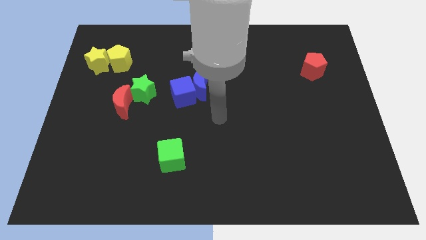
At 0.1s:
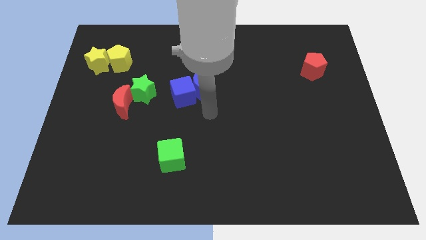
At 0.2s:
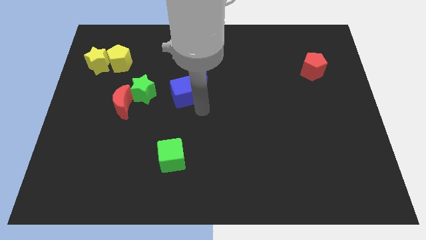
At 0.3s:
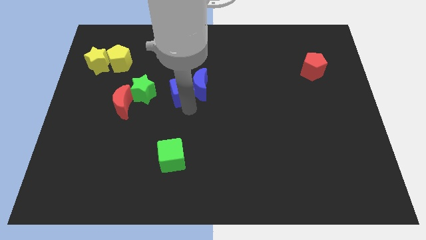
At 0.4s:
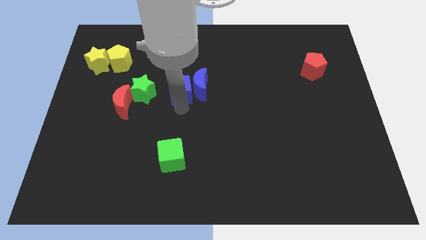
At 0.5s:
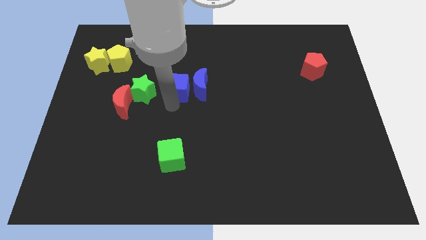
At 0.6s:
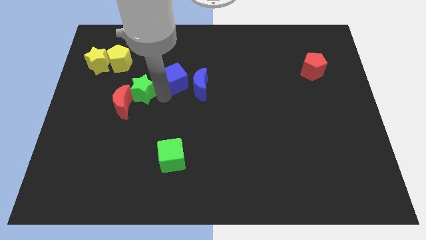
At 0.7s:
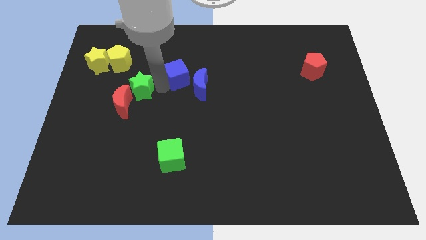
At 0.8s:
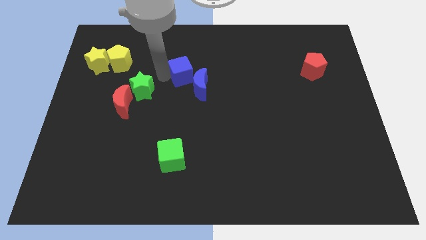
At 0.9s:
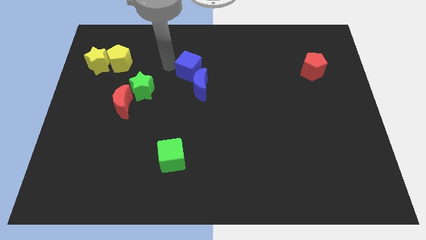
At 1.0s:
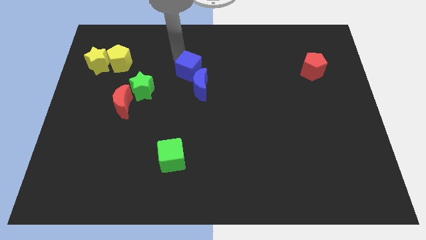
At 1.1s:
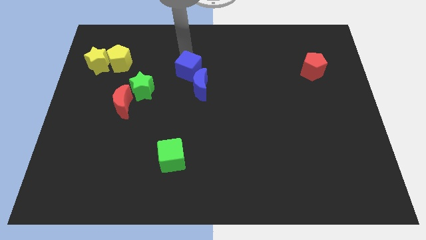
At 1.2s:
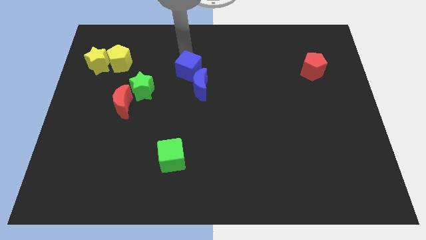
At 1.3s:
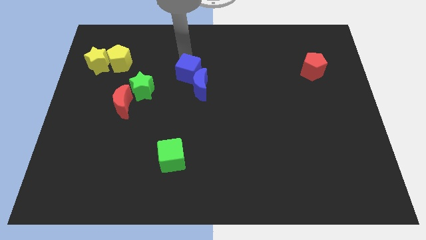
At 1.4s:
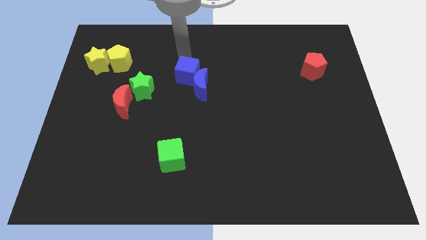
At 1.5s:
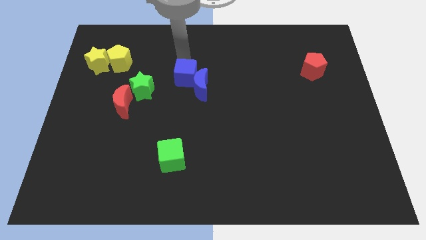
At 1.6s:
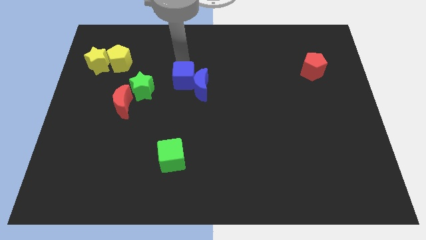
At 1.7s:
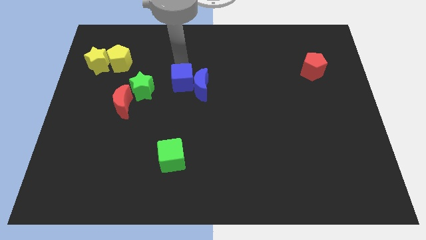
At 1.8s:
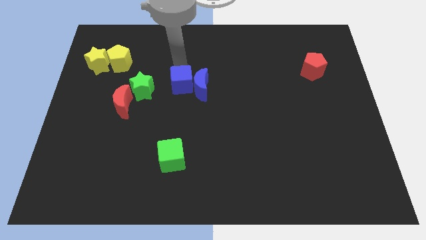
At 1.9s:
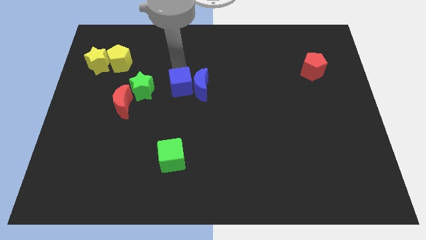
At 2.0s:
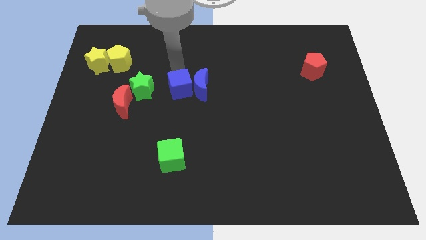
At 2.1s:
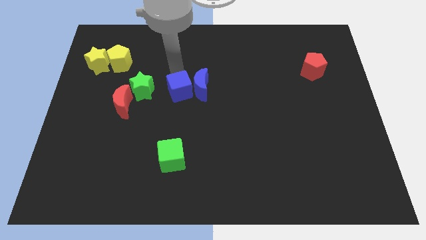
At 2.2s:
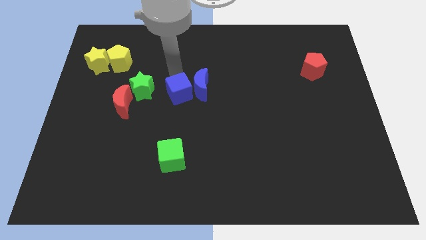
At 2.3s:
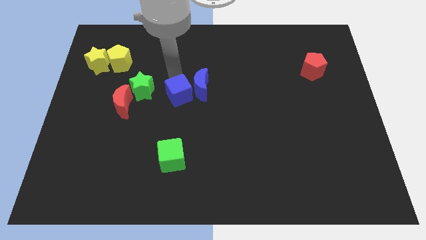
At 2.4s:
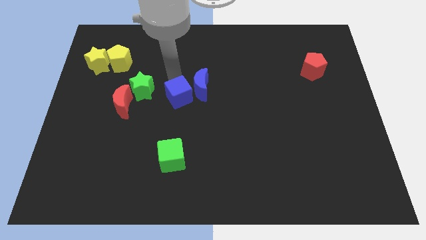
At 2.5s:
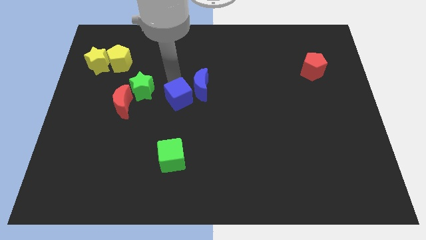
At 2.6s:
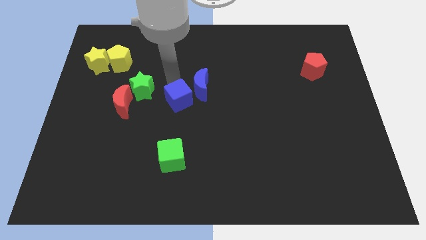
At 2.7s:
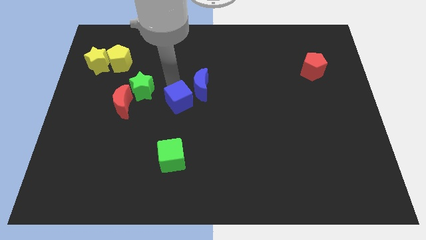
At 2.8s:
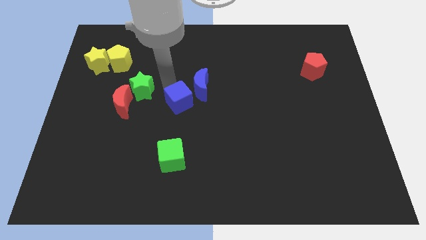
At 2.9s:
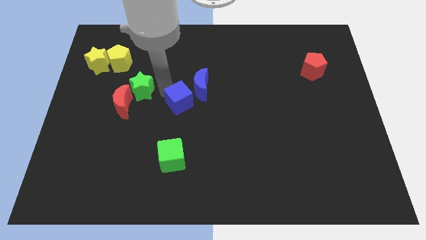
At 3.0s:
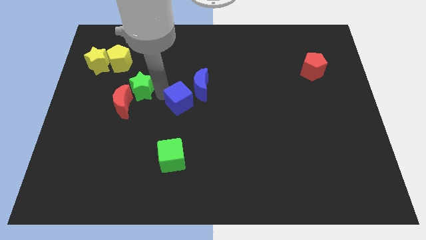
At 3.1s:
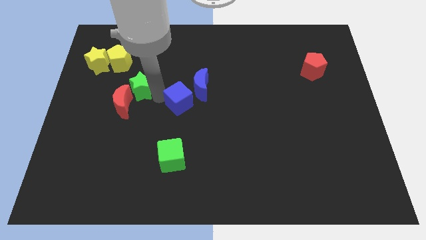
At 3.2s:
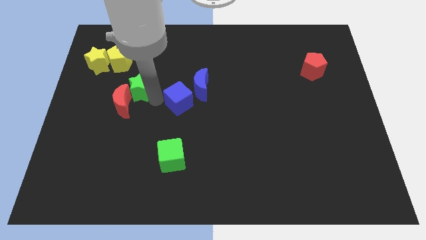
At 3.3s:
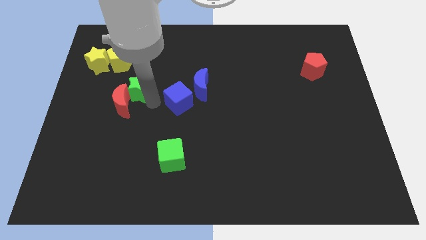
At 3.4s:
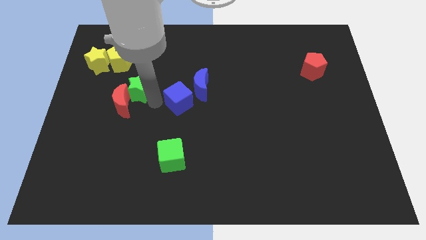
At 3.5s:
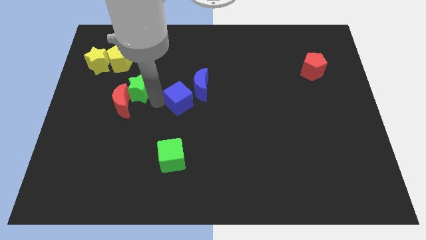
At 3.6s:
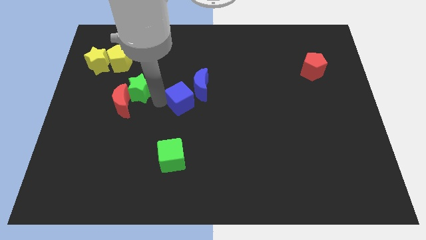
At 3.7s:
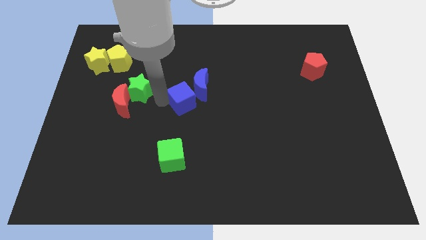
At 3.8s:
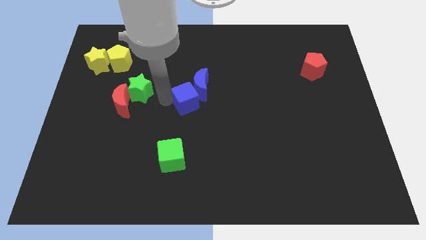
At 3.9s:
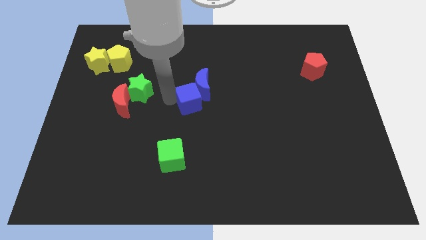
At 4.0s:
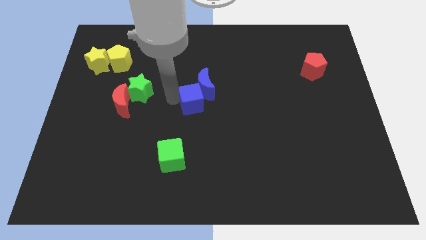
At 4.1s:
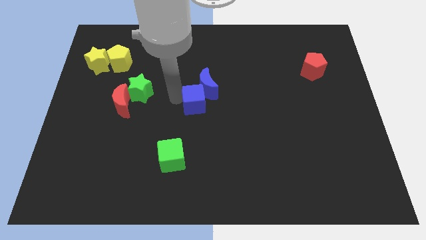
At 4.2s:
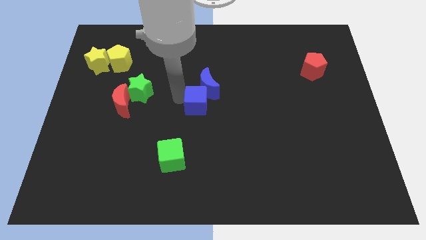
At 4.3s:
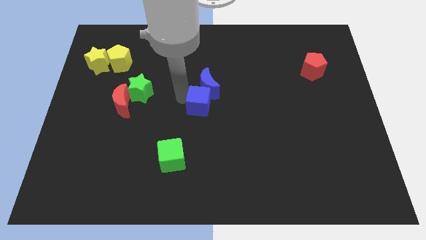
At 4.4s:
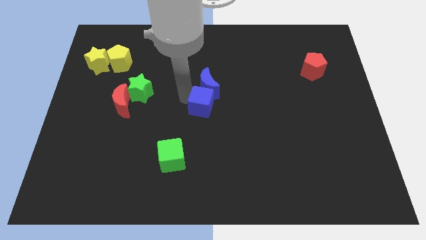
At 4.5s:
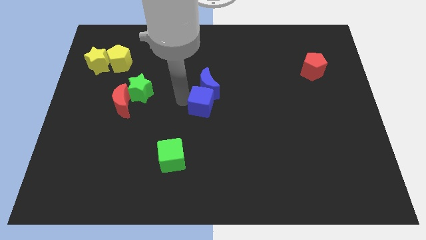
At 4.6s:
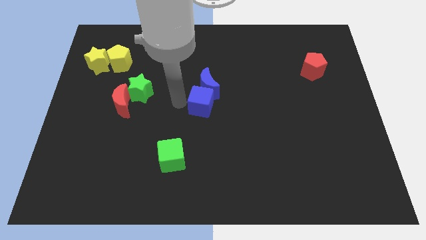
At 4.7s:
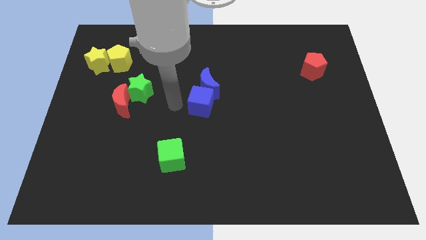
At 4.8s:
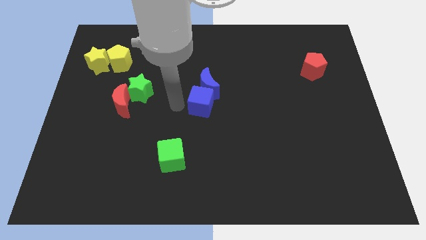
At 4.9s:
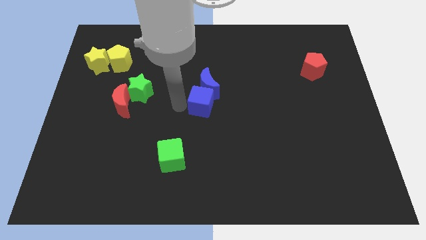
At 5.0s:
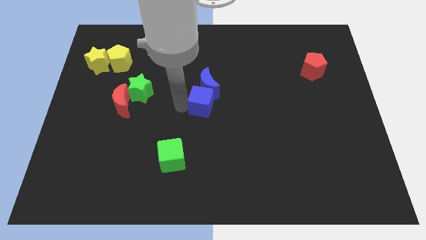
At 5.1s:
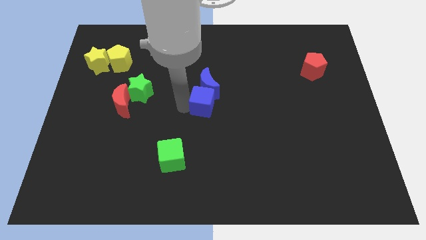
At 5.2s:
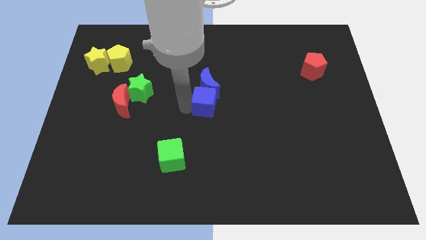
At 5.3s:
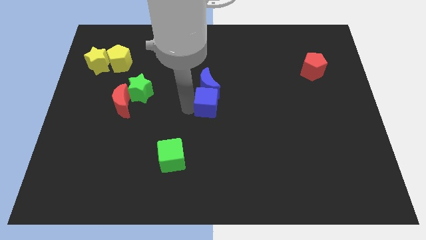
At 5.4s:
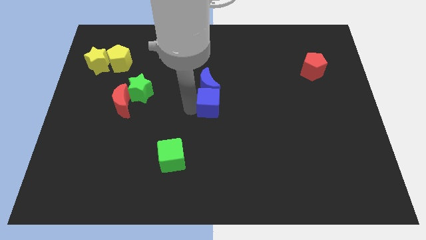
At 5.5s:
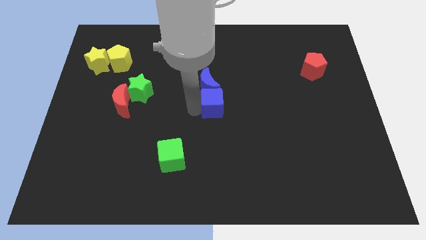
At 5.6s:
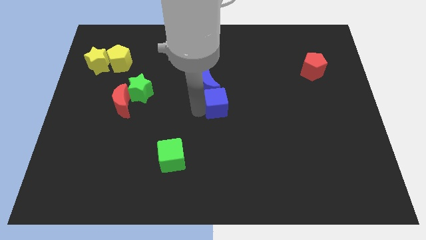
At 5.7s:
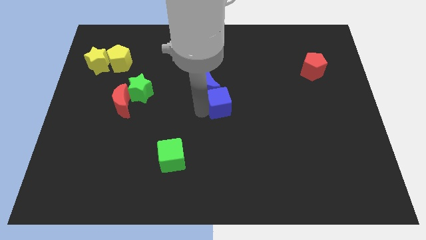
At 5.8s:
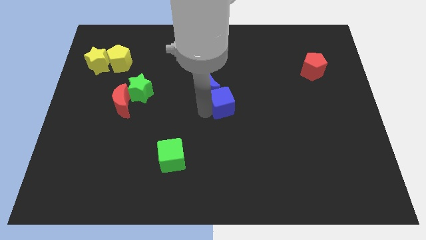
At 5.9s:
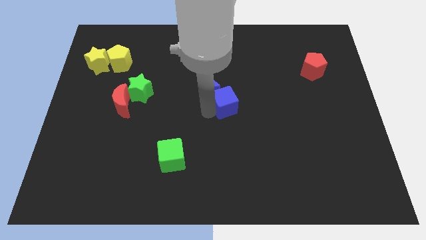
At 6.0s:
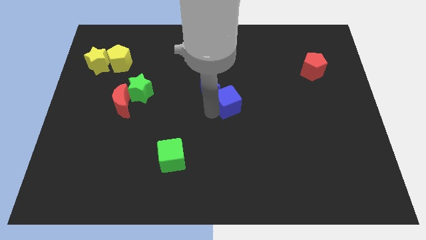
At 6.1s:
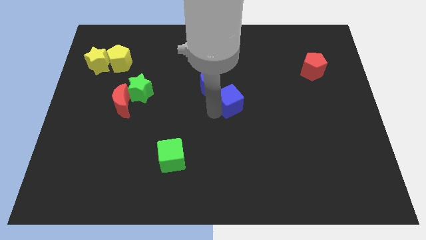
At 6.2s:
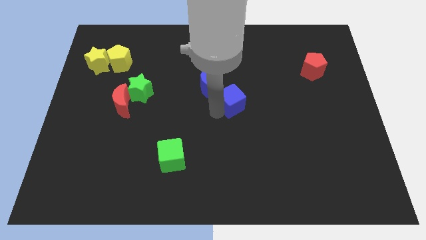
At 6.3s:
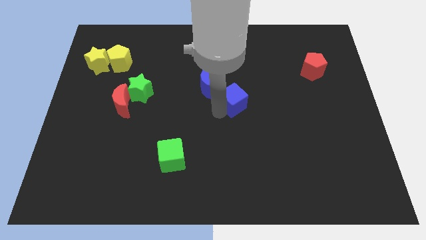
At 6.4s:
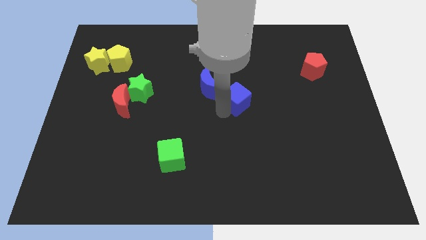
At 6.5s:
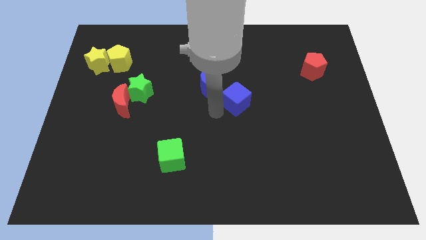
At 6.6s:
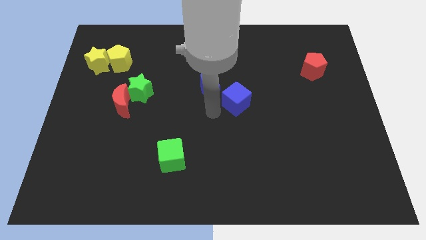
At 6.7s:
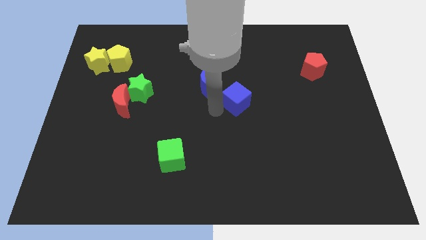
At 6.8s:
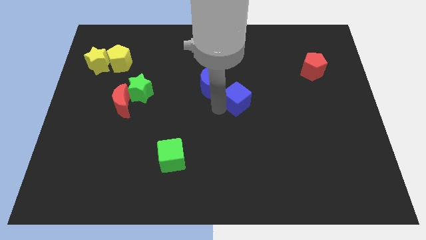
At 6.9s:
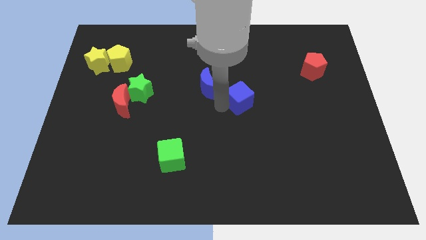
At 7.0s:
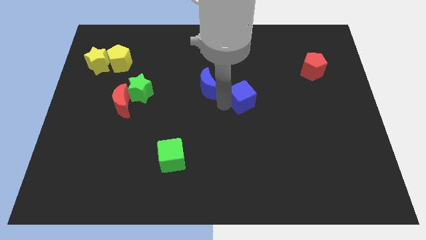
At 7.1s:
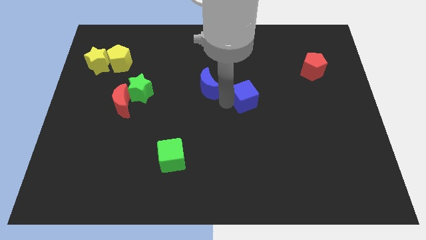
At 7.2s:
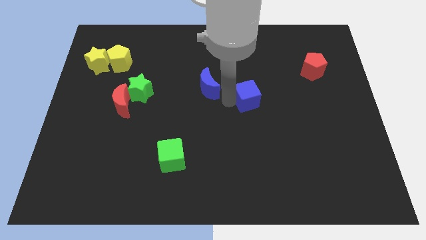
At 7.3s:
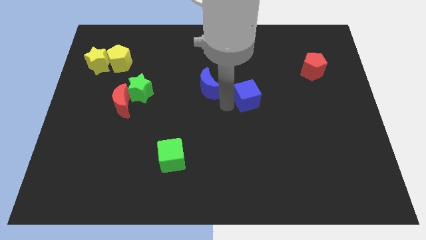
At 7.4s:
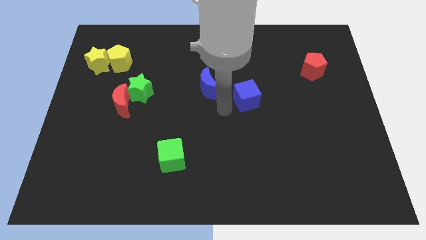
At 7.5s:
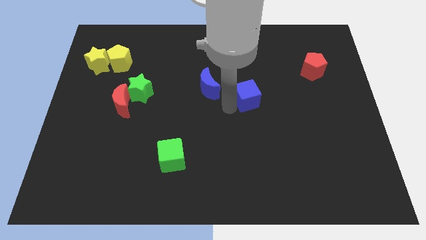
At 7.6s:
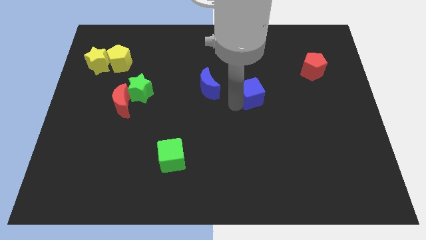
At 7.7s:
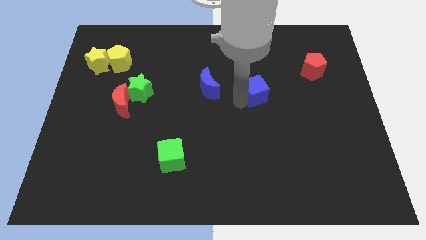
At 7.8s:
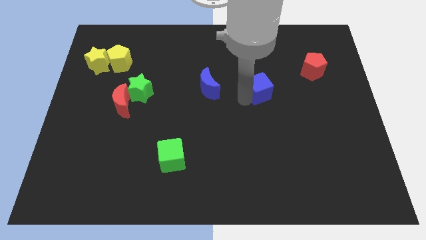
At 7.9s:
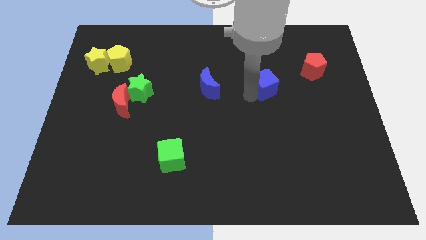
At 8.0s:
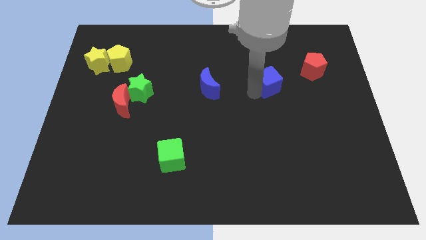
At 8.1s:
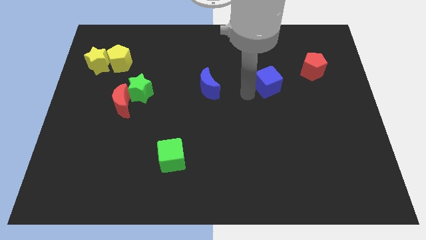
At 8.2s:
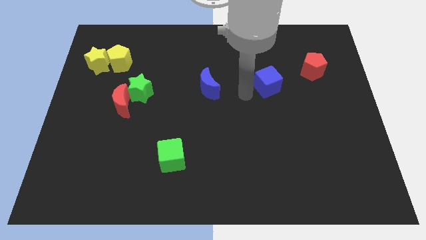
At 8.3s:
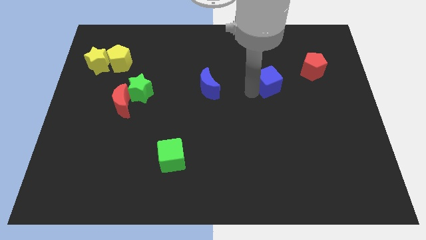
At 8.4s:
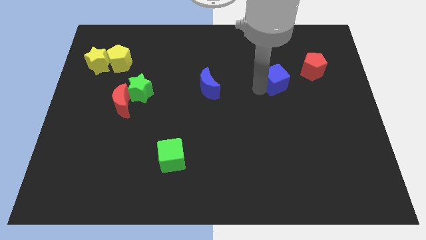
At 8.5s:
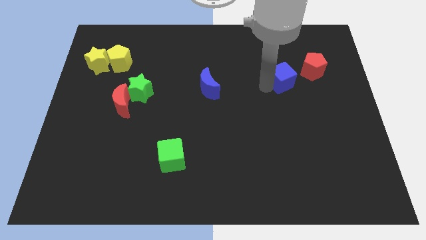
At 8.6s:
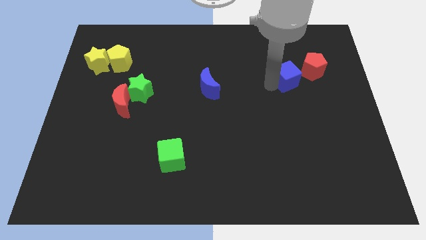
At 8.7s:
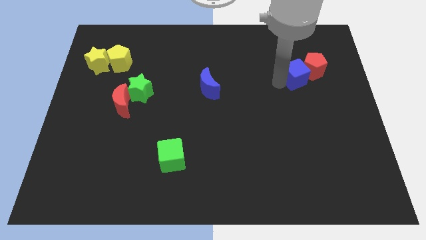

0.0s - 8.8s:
slide the blue cube close to the red pentagon
